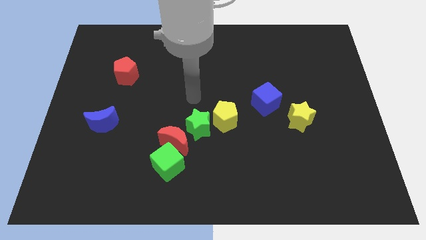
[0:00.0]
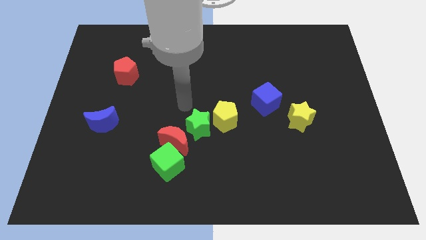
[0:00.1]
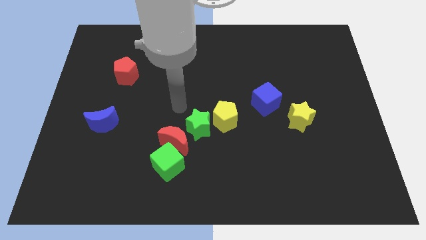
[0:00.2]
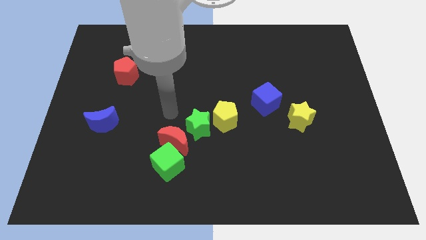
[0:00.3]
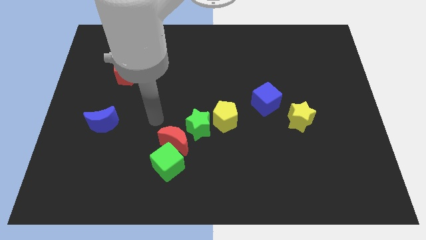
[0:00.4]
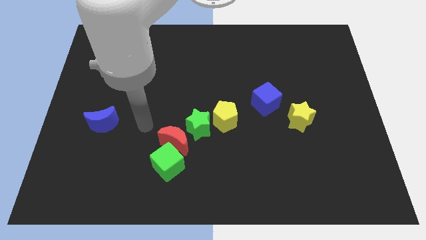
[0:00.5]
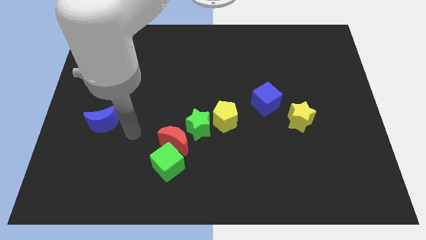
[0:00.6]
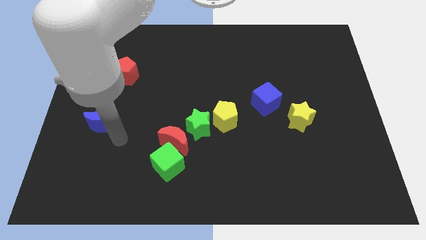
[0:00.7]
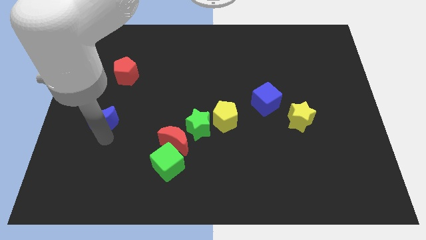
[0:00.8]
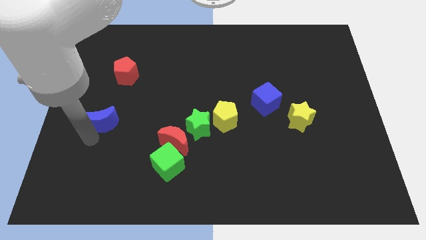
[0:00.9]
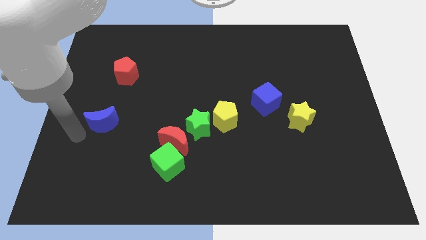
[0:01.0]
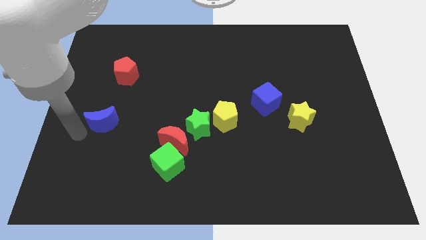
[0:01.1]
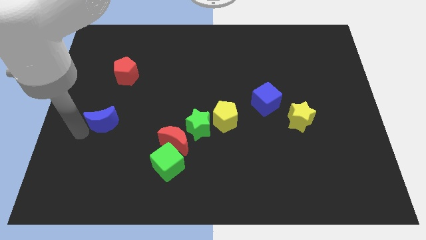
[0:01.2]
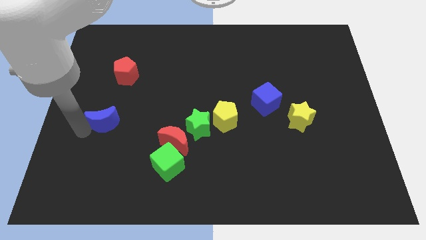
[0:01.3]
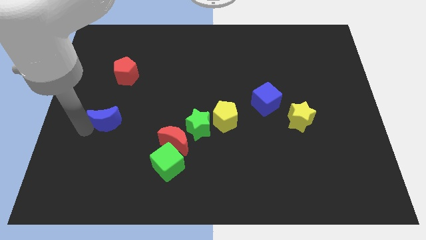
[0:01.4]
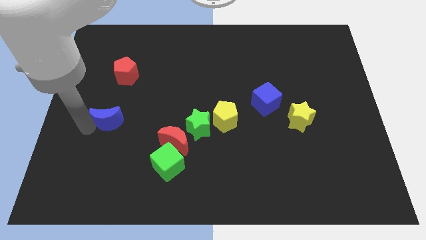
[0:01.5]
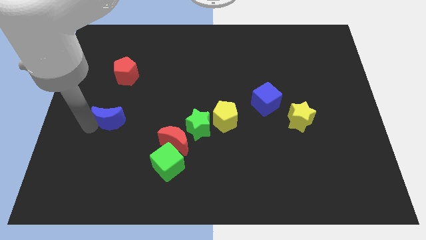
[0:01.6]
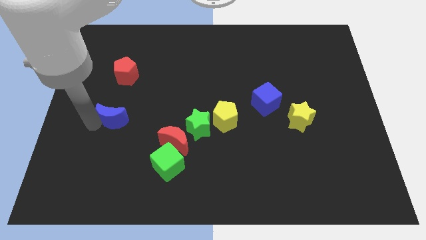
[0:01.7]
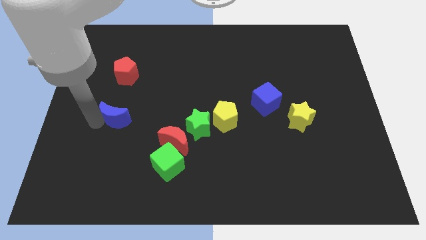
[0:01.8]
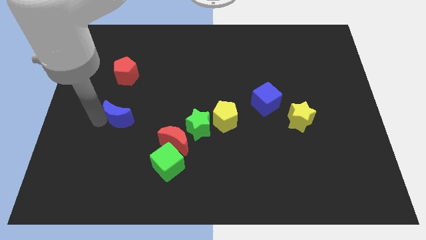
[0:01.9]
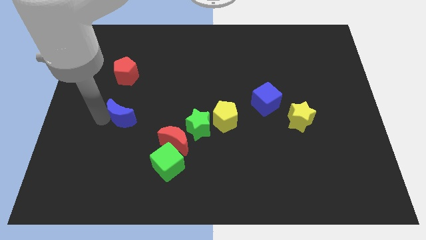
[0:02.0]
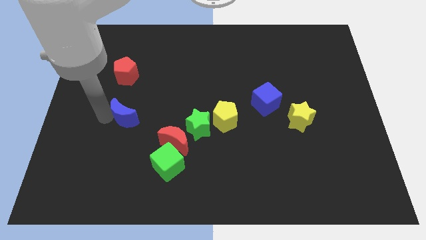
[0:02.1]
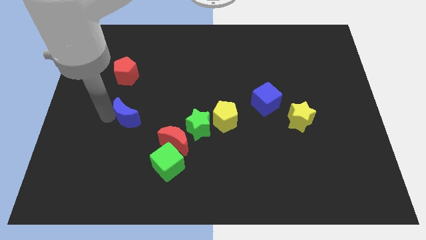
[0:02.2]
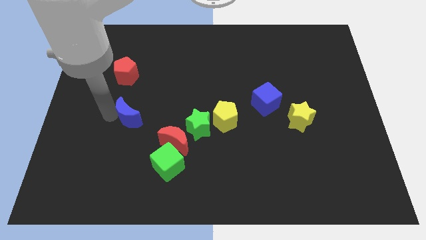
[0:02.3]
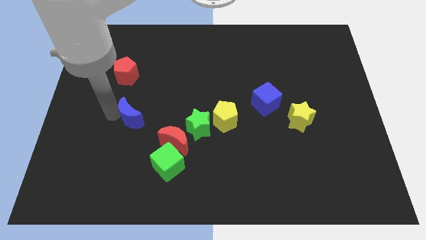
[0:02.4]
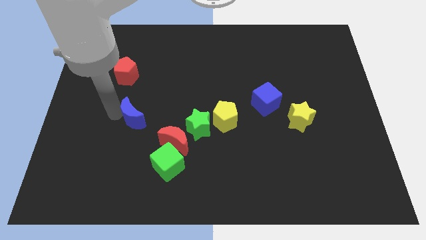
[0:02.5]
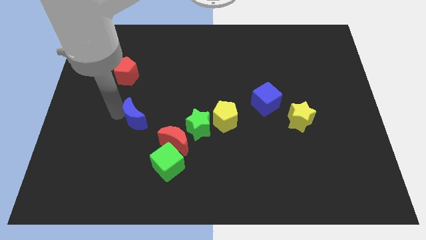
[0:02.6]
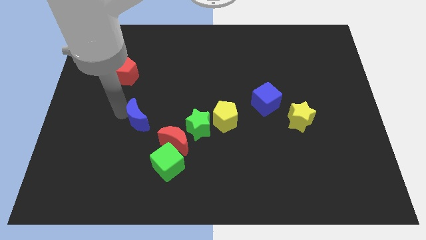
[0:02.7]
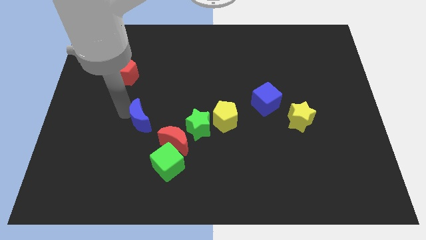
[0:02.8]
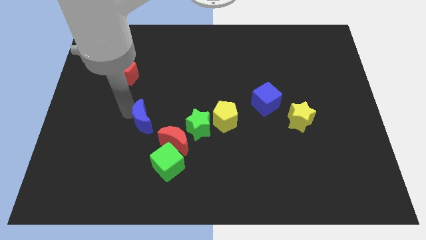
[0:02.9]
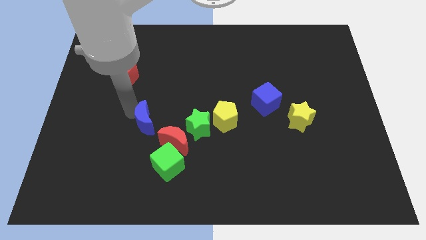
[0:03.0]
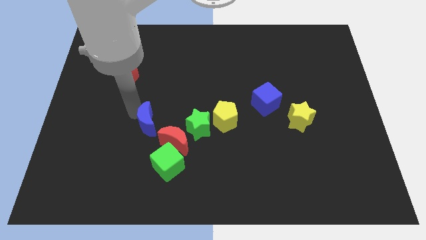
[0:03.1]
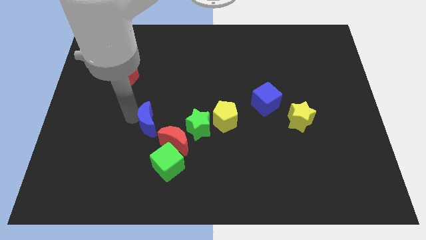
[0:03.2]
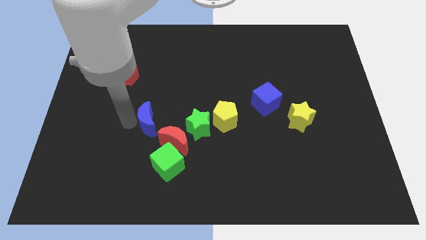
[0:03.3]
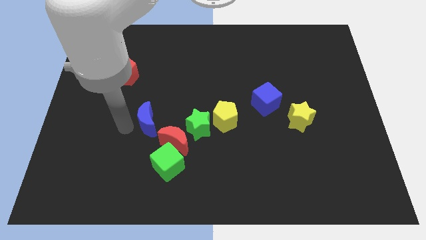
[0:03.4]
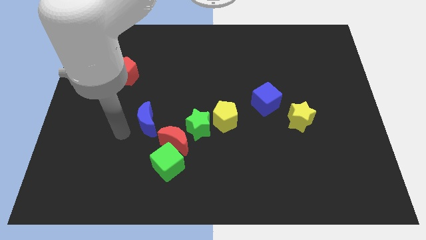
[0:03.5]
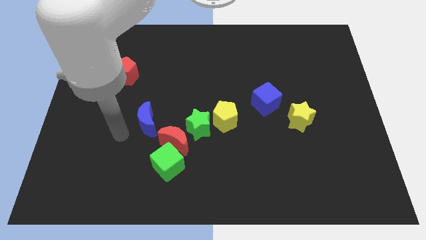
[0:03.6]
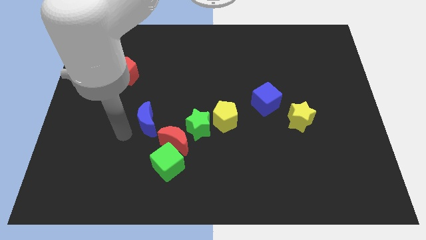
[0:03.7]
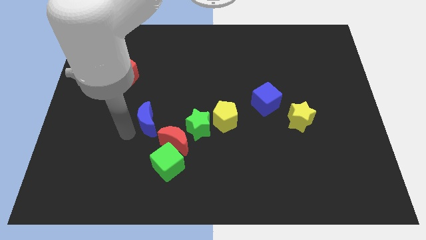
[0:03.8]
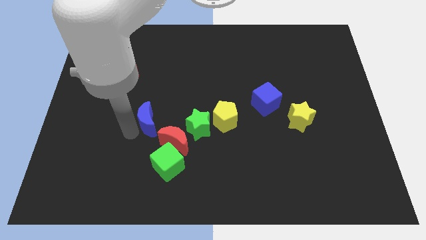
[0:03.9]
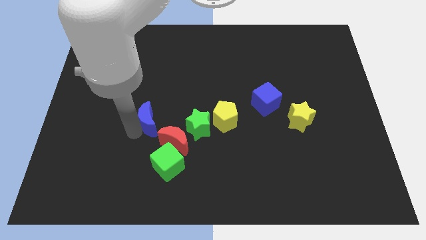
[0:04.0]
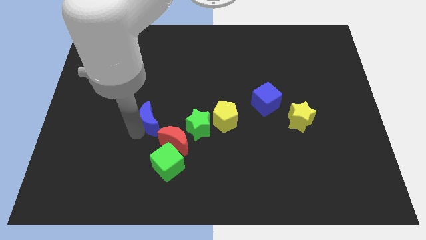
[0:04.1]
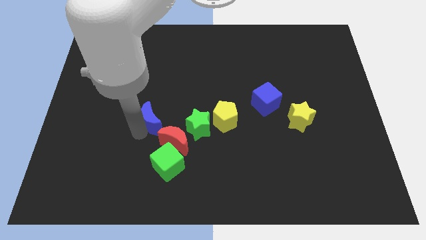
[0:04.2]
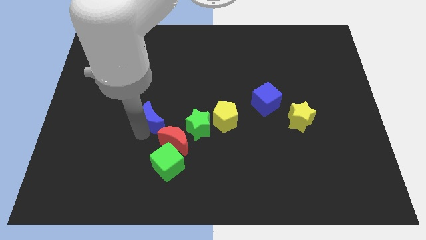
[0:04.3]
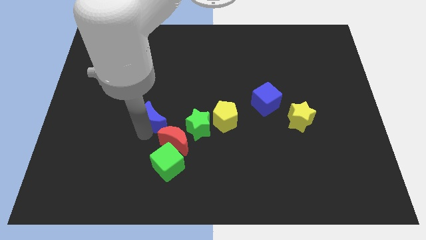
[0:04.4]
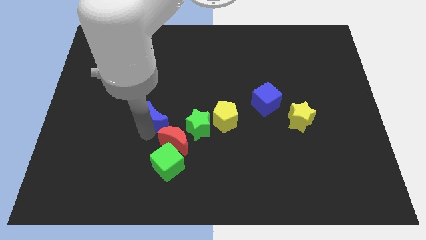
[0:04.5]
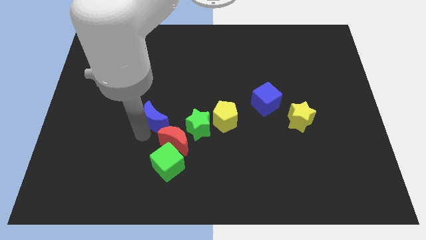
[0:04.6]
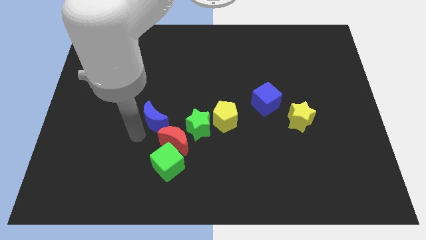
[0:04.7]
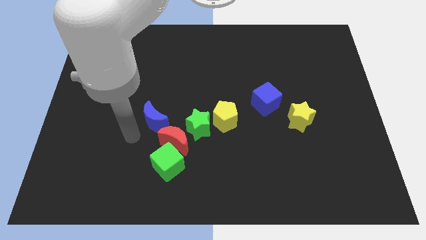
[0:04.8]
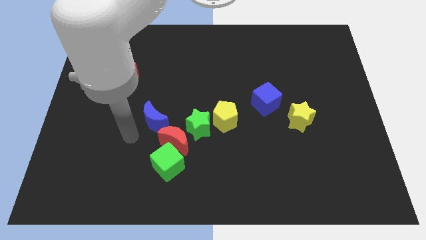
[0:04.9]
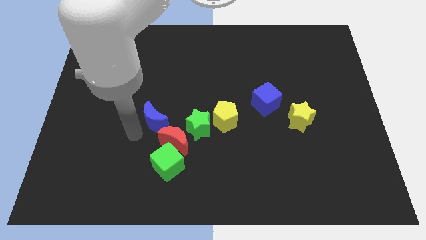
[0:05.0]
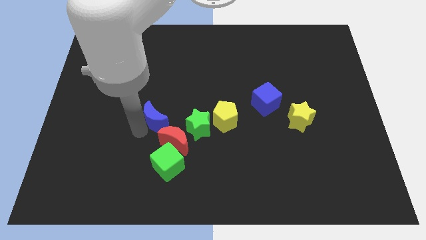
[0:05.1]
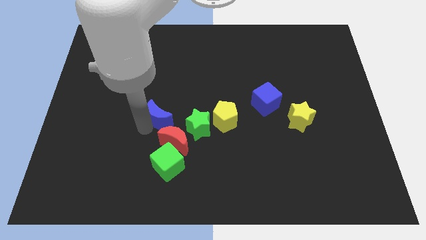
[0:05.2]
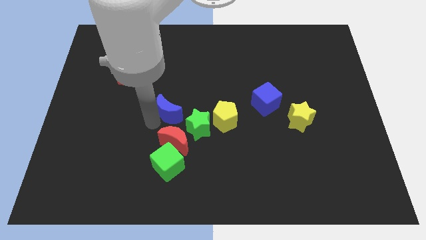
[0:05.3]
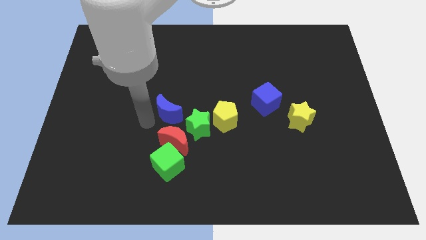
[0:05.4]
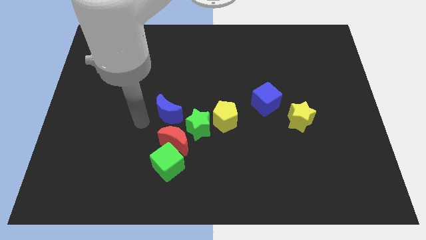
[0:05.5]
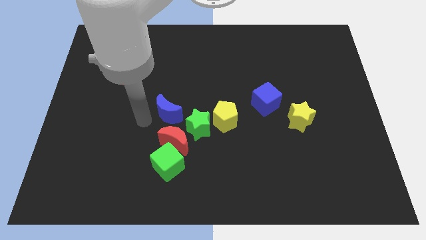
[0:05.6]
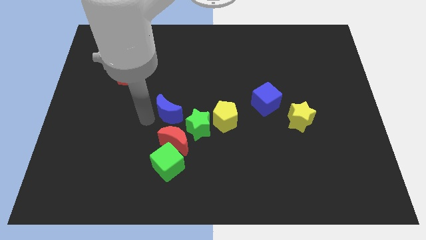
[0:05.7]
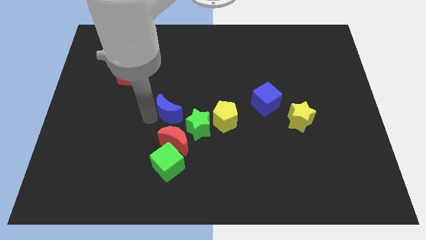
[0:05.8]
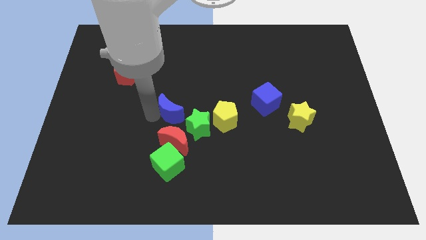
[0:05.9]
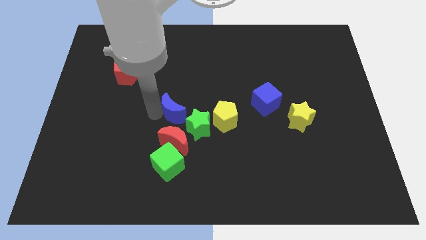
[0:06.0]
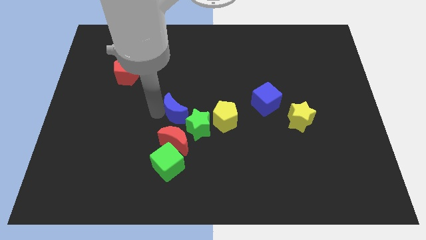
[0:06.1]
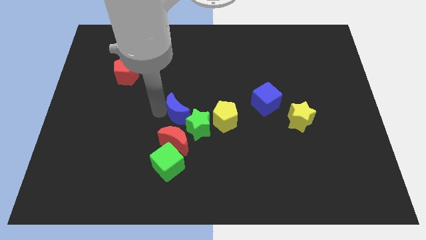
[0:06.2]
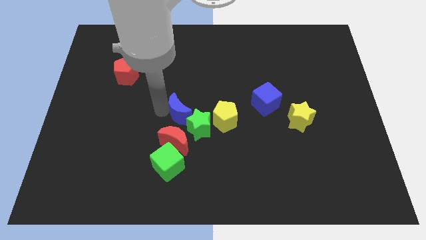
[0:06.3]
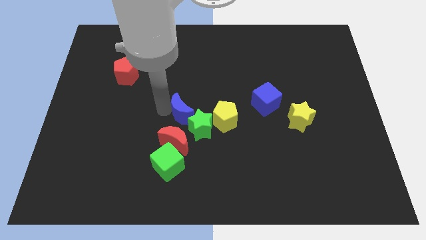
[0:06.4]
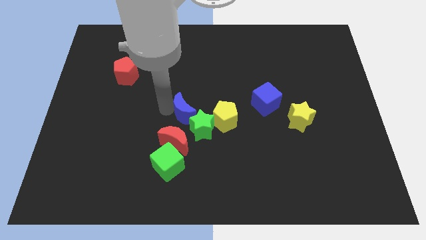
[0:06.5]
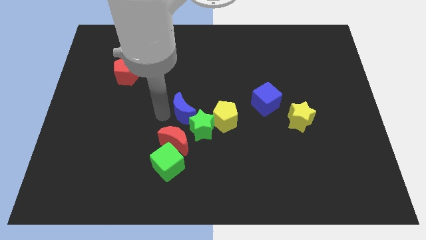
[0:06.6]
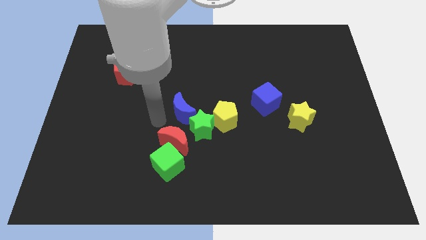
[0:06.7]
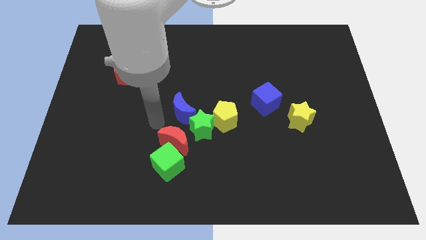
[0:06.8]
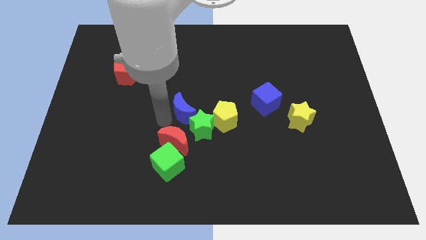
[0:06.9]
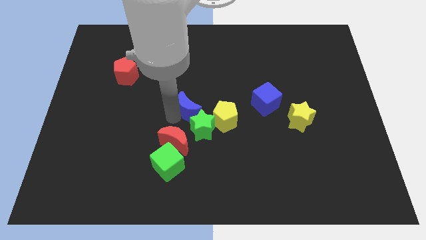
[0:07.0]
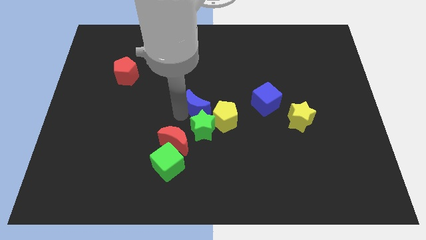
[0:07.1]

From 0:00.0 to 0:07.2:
push the blue moon right

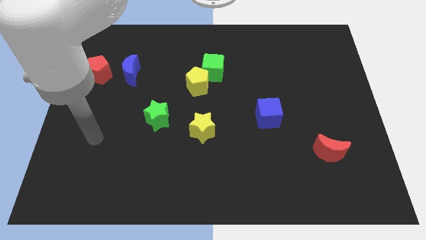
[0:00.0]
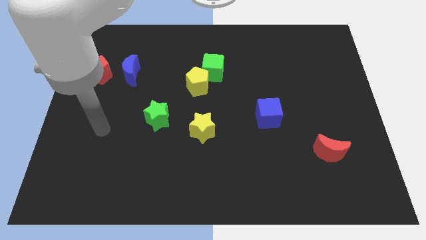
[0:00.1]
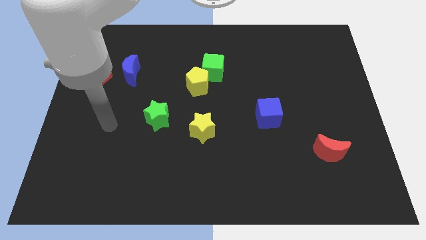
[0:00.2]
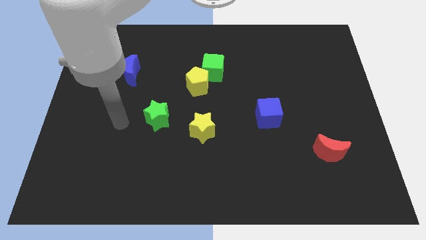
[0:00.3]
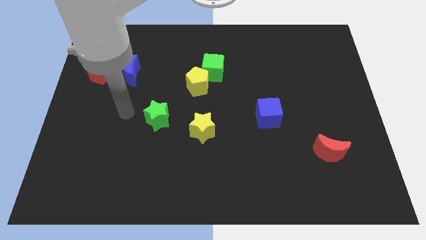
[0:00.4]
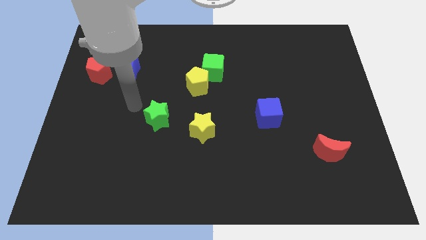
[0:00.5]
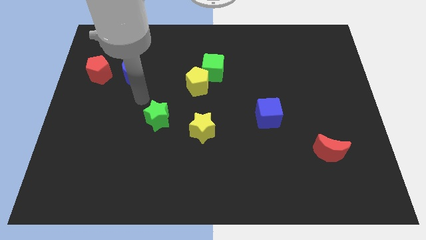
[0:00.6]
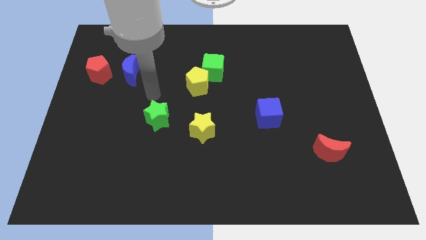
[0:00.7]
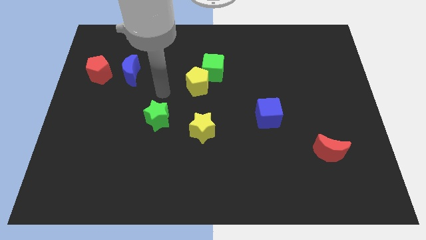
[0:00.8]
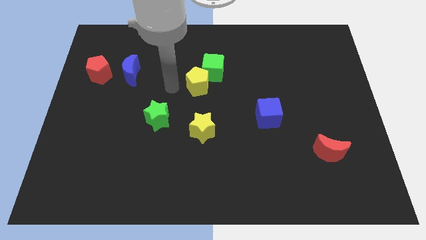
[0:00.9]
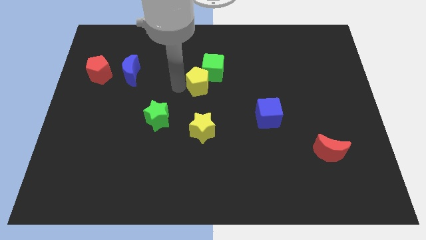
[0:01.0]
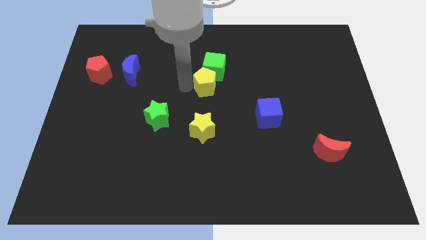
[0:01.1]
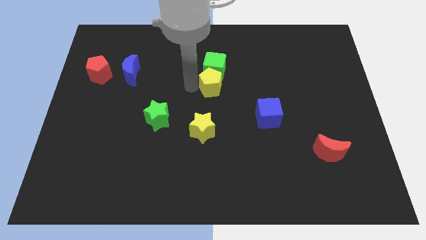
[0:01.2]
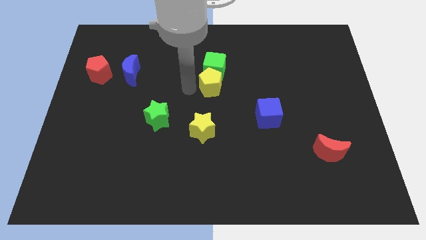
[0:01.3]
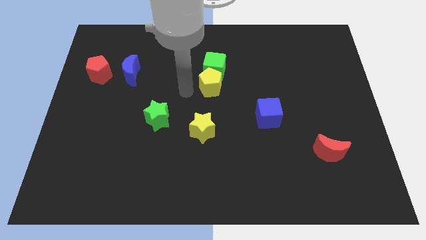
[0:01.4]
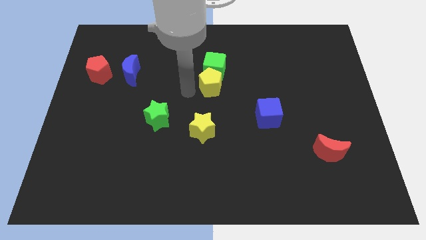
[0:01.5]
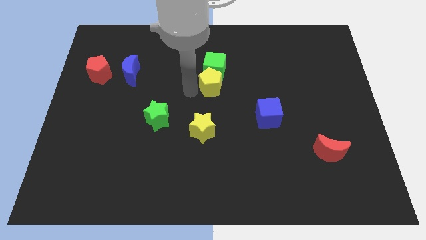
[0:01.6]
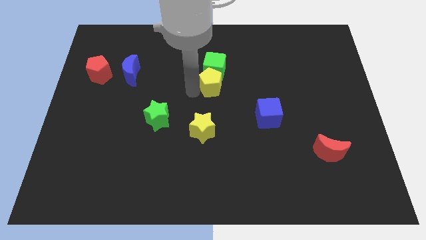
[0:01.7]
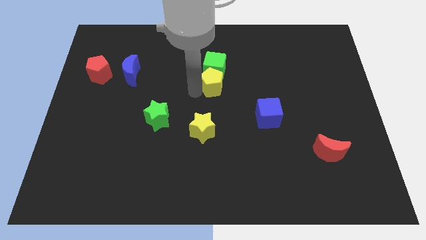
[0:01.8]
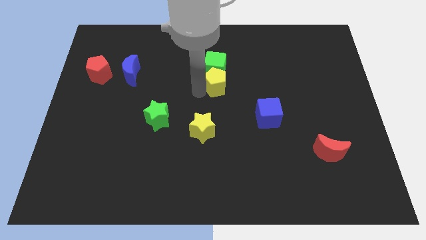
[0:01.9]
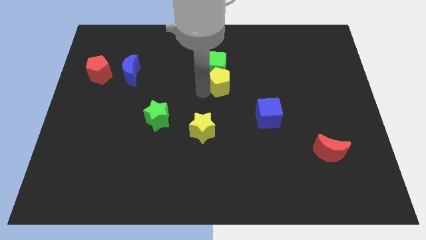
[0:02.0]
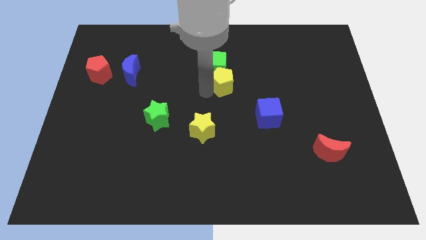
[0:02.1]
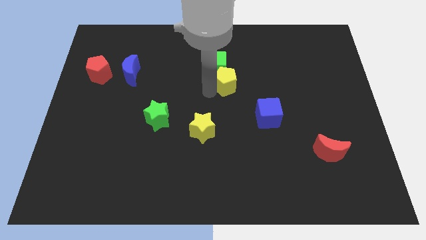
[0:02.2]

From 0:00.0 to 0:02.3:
slide the yellow pentagon a little right
